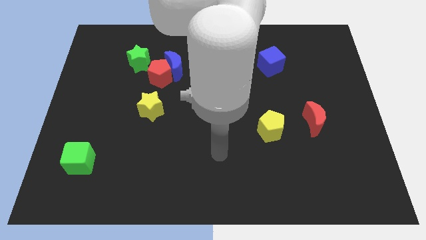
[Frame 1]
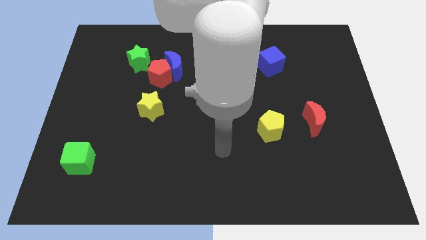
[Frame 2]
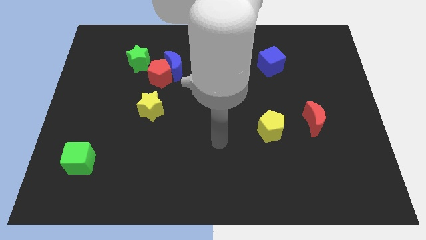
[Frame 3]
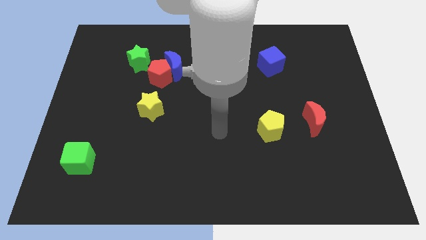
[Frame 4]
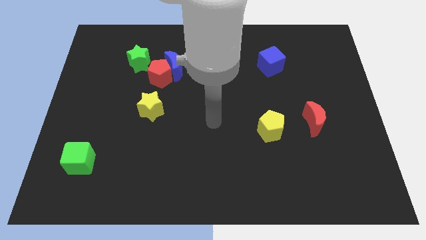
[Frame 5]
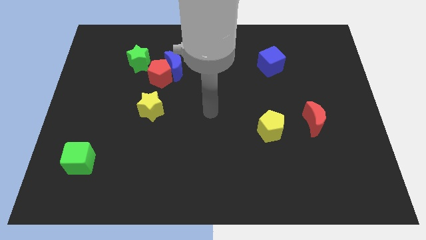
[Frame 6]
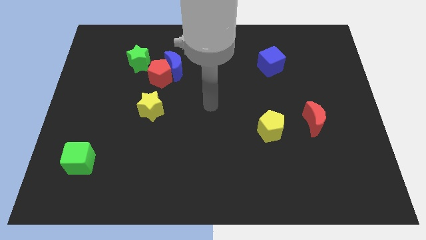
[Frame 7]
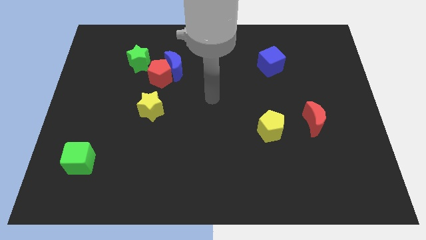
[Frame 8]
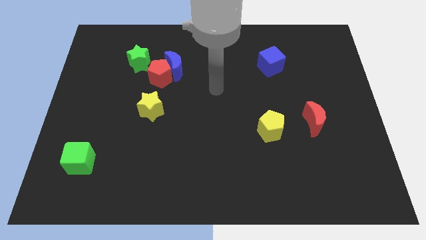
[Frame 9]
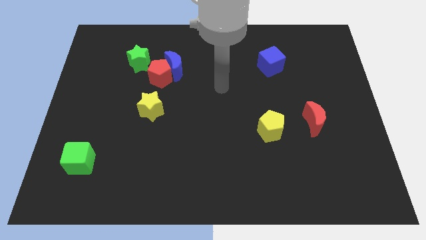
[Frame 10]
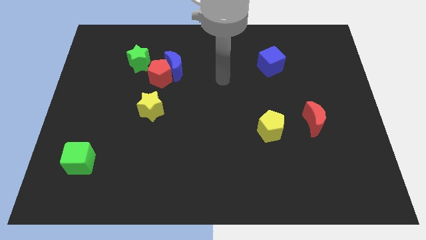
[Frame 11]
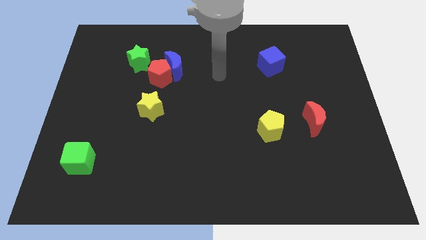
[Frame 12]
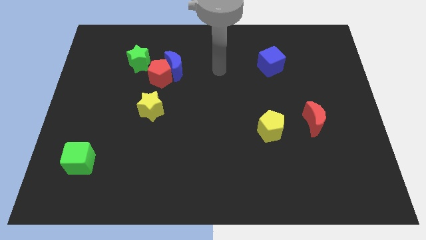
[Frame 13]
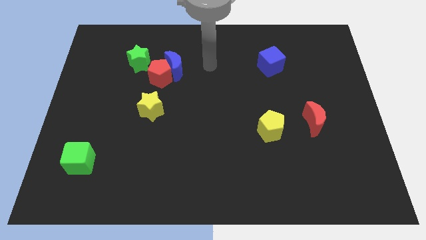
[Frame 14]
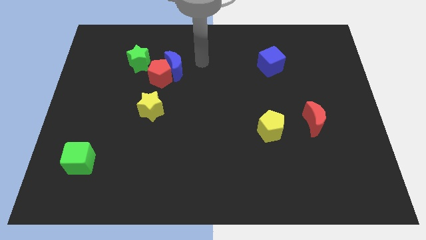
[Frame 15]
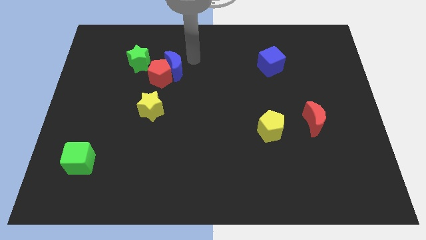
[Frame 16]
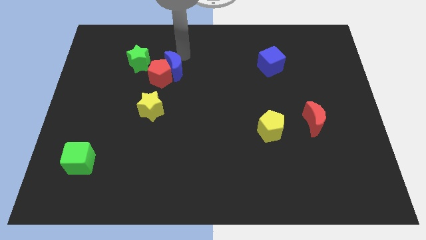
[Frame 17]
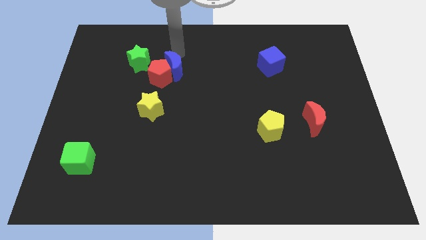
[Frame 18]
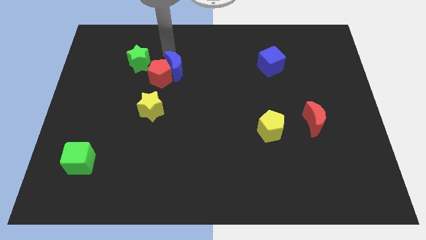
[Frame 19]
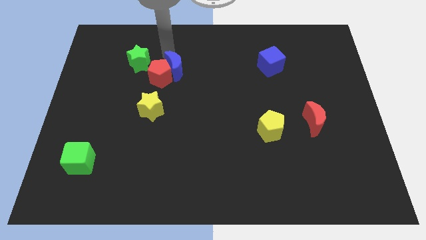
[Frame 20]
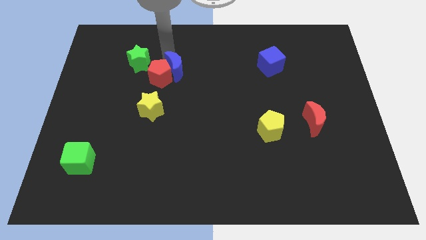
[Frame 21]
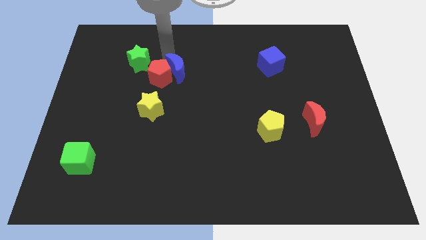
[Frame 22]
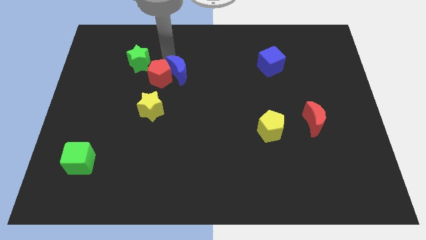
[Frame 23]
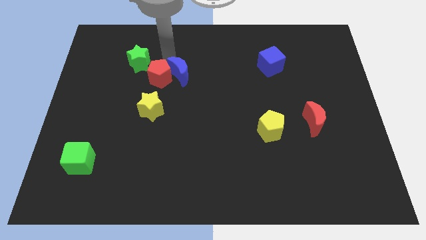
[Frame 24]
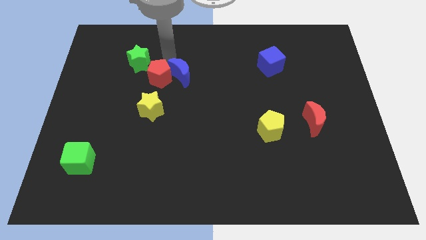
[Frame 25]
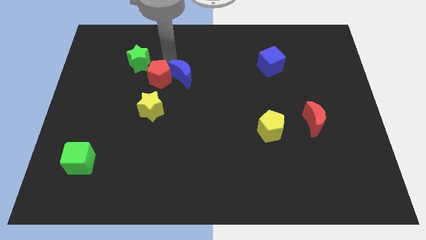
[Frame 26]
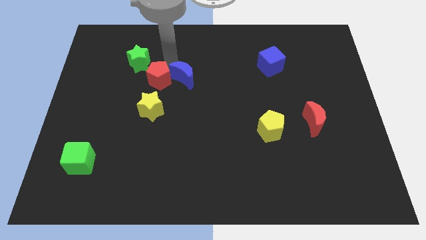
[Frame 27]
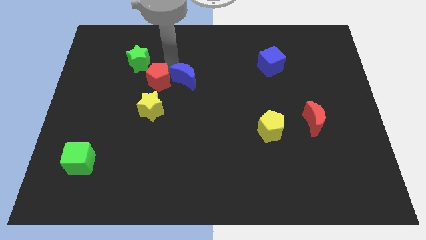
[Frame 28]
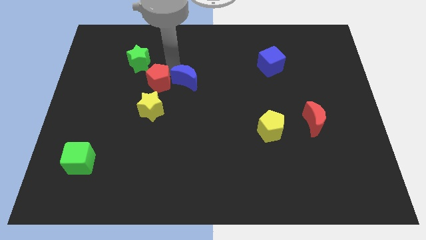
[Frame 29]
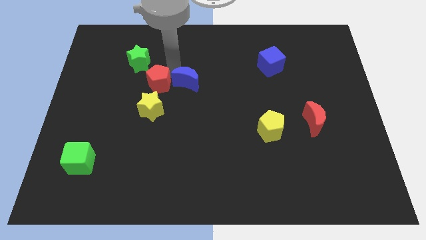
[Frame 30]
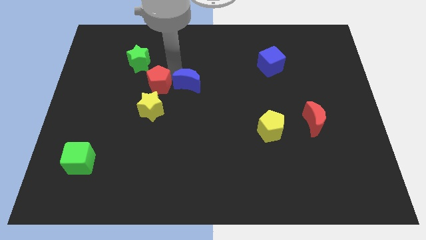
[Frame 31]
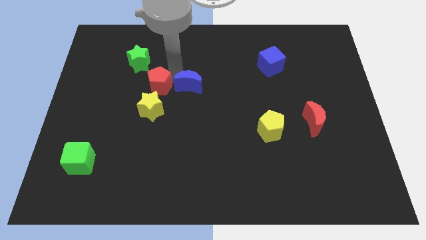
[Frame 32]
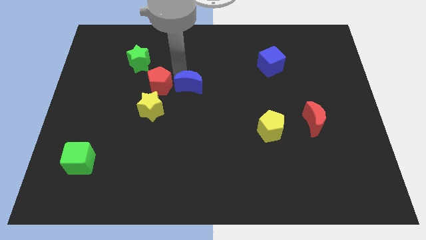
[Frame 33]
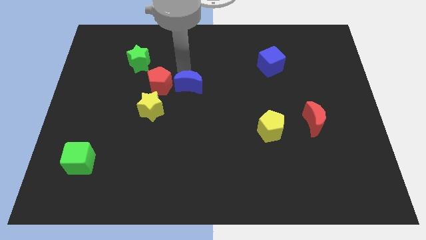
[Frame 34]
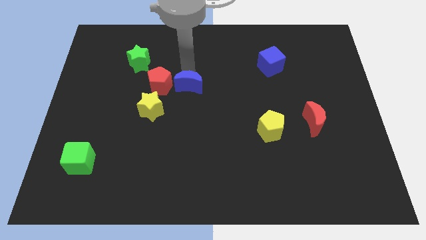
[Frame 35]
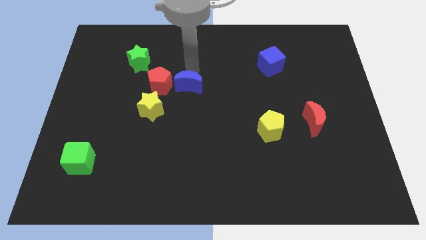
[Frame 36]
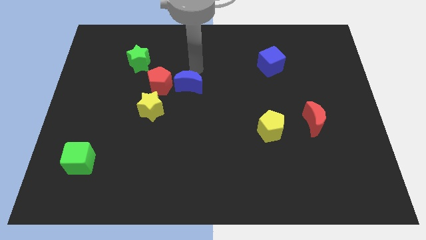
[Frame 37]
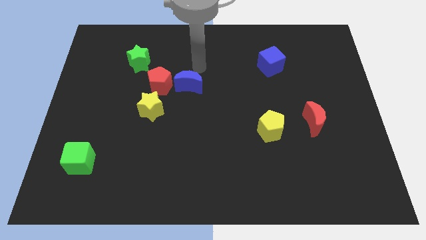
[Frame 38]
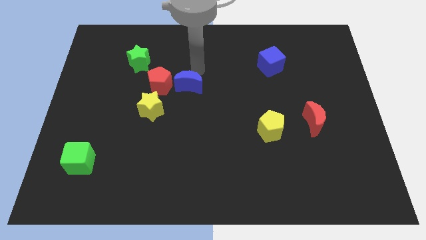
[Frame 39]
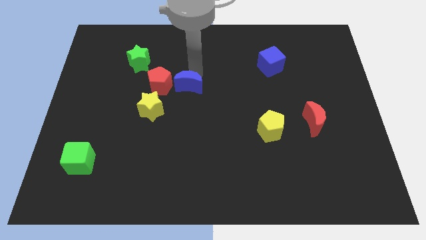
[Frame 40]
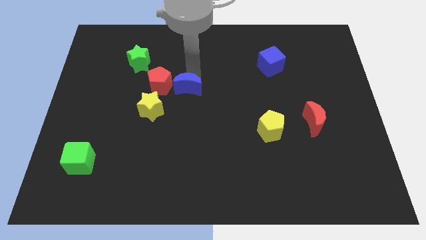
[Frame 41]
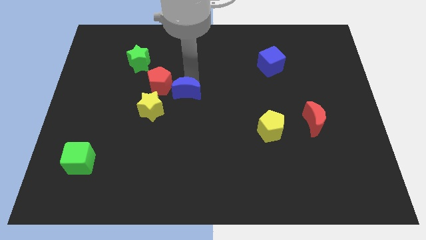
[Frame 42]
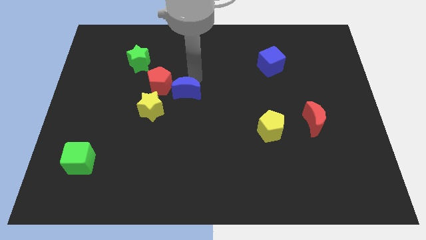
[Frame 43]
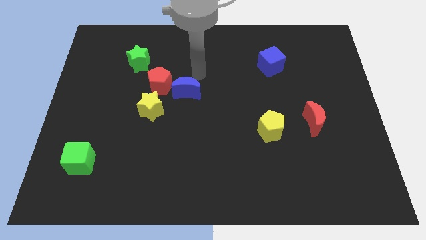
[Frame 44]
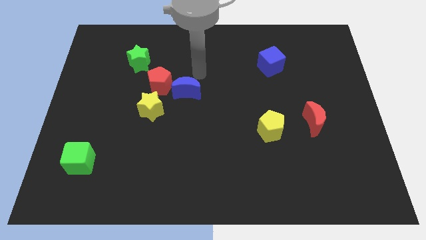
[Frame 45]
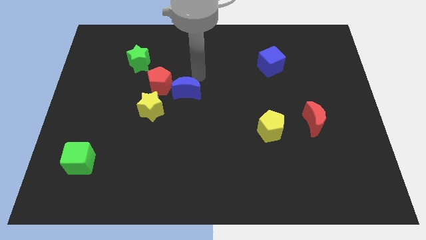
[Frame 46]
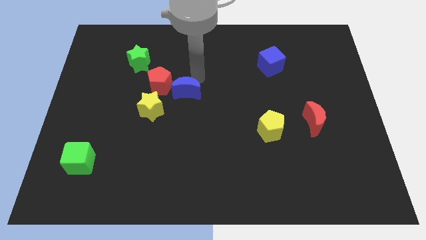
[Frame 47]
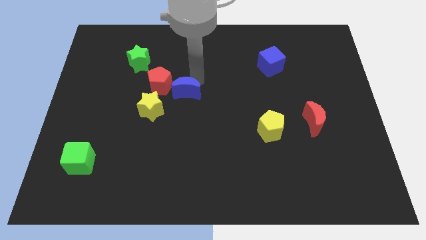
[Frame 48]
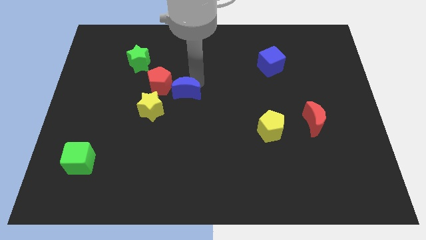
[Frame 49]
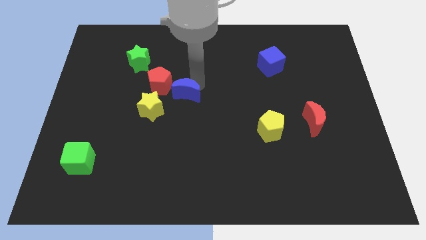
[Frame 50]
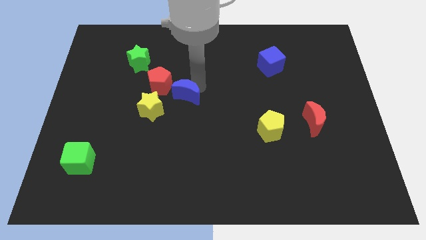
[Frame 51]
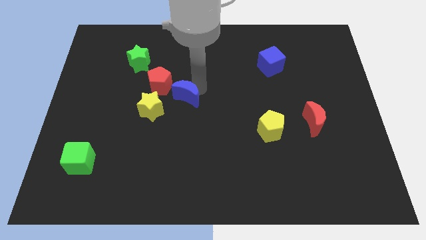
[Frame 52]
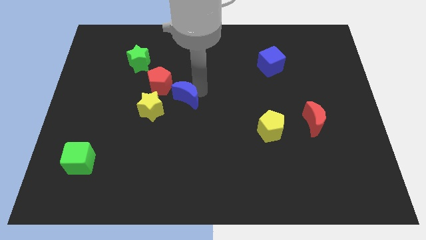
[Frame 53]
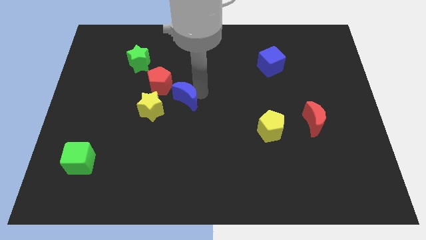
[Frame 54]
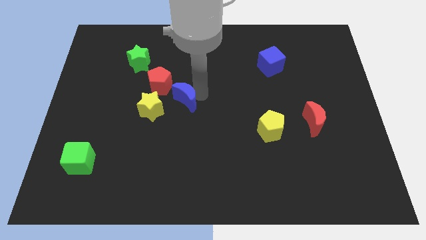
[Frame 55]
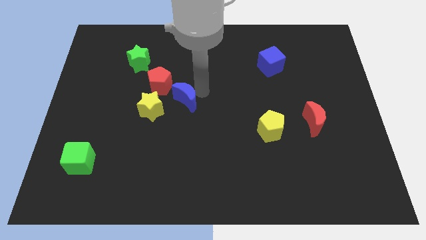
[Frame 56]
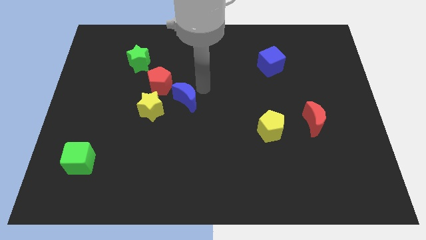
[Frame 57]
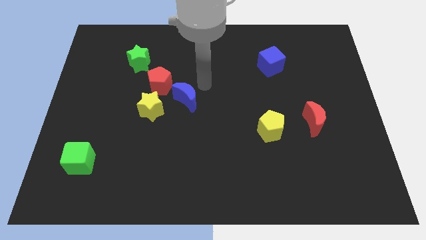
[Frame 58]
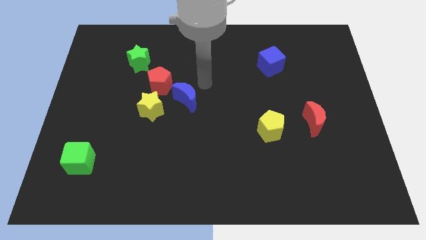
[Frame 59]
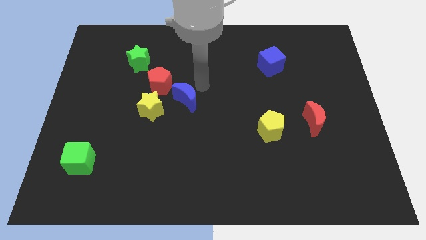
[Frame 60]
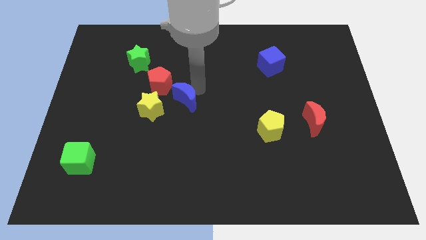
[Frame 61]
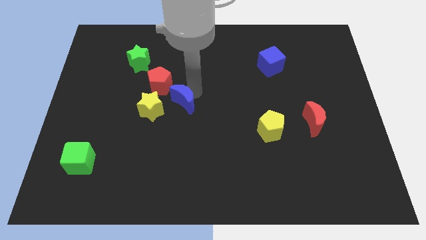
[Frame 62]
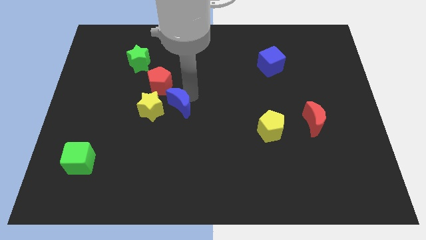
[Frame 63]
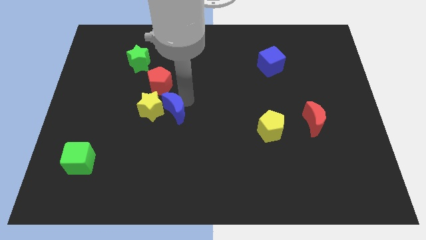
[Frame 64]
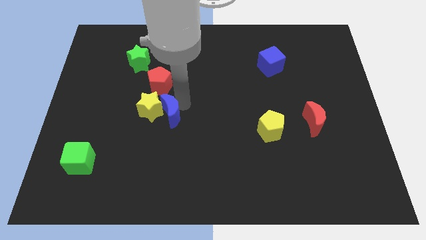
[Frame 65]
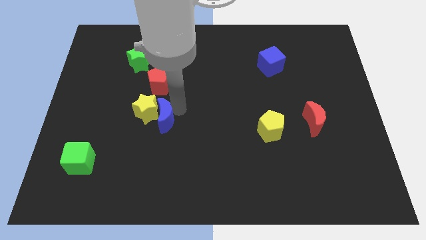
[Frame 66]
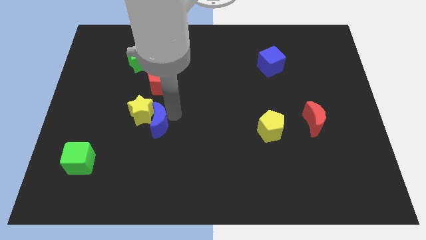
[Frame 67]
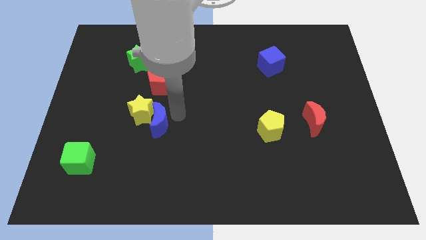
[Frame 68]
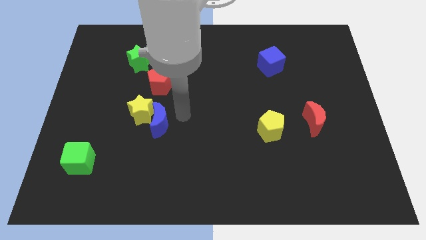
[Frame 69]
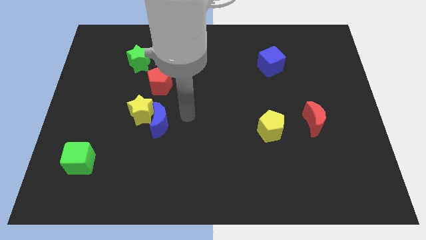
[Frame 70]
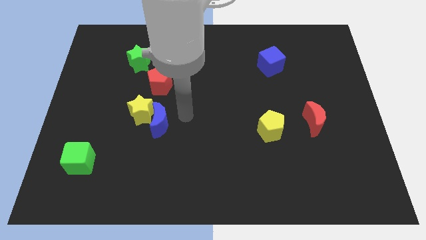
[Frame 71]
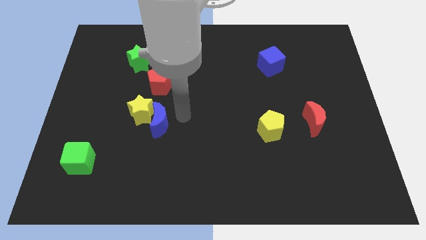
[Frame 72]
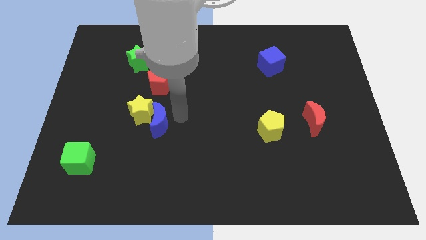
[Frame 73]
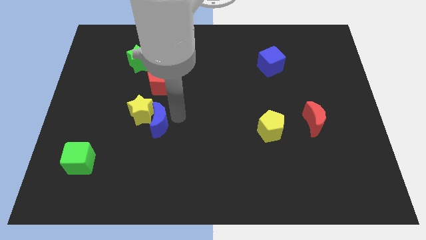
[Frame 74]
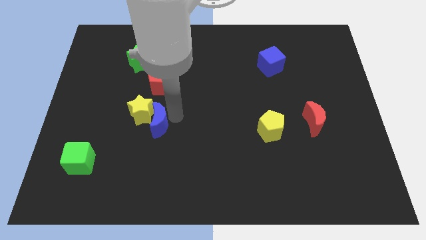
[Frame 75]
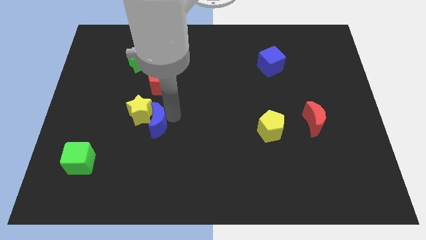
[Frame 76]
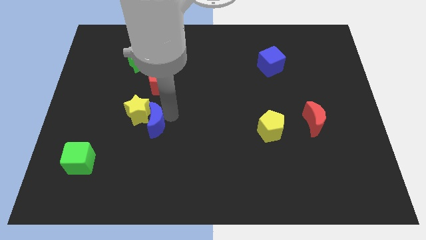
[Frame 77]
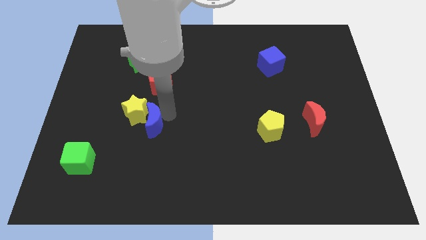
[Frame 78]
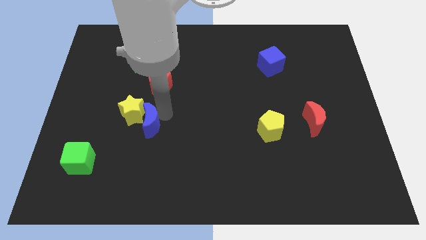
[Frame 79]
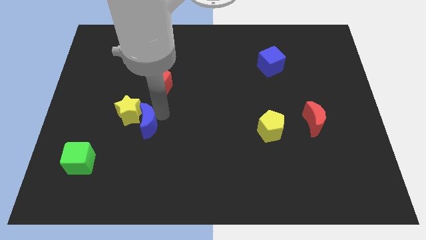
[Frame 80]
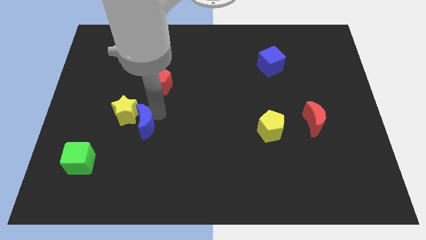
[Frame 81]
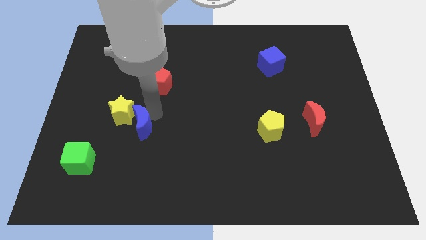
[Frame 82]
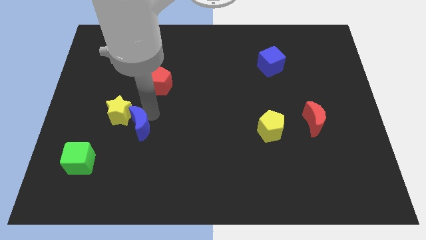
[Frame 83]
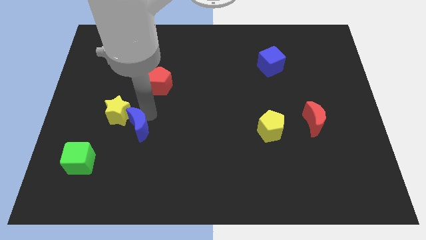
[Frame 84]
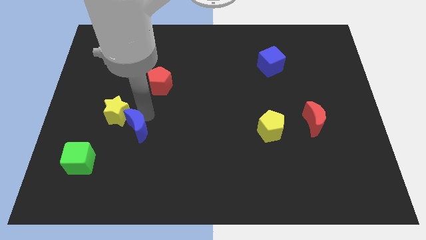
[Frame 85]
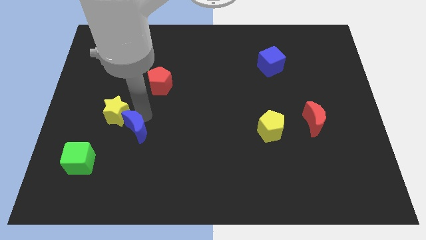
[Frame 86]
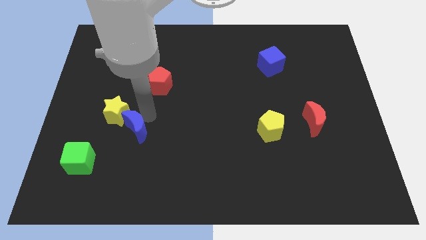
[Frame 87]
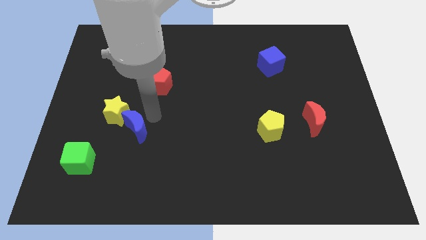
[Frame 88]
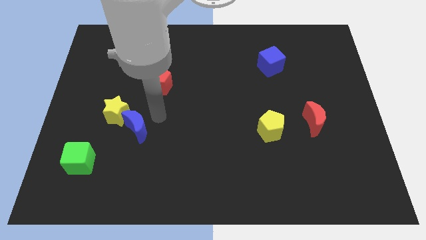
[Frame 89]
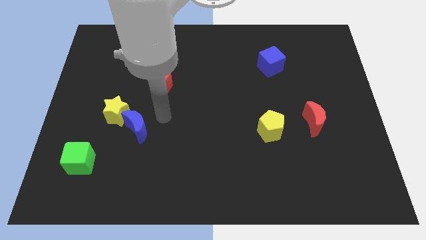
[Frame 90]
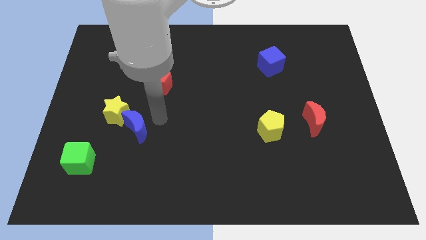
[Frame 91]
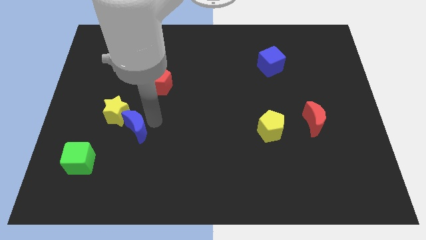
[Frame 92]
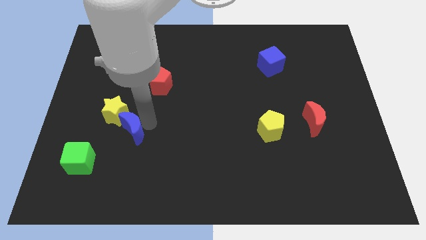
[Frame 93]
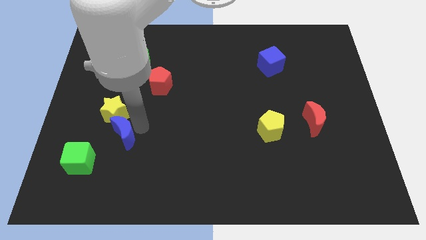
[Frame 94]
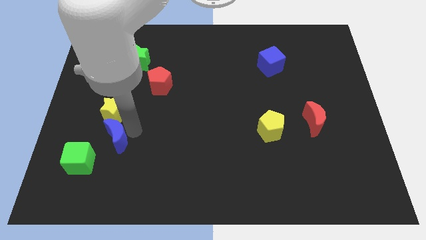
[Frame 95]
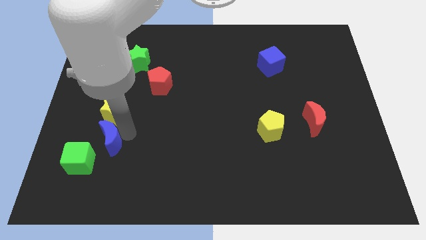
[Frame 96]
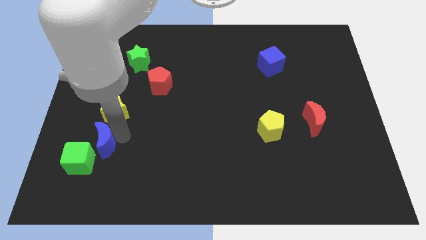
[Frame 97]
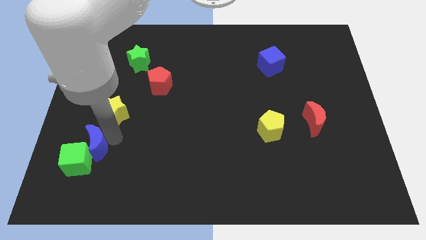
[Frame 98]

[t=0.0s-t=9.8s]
put the blue moon next to the green cube
